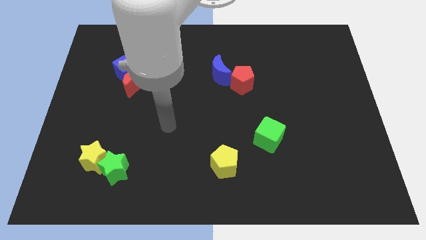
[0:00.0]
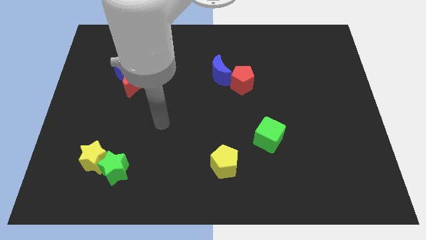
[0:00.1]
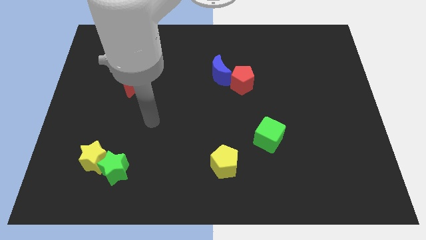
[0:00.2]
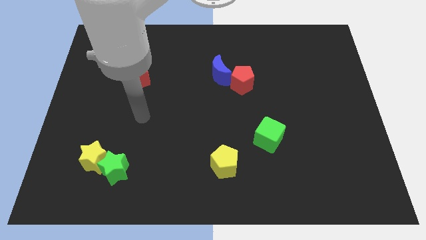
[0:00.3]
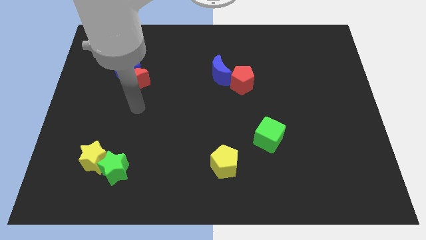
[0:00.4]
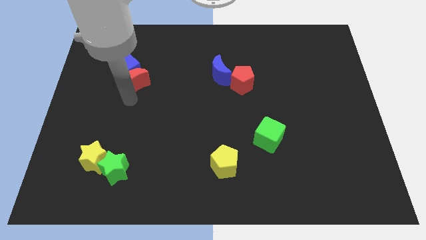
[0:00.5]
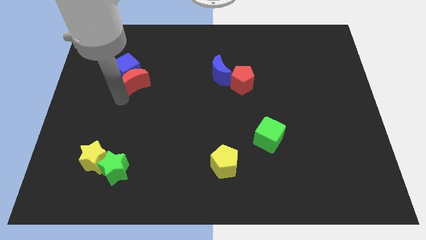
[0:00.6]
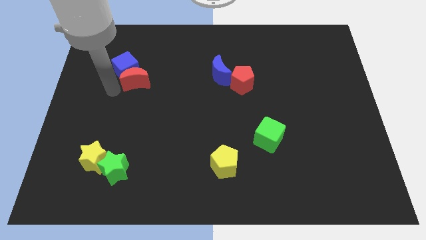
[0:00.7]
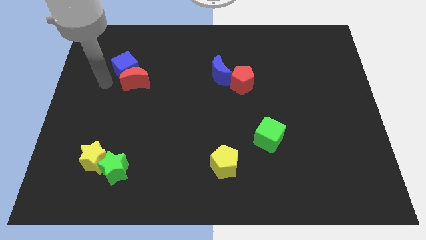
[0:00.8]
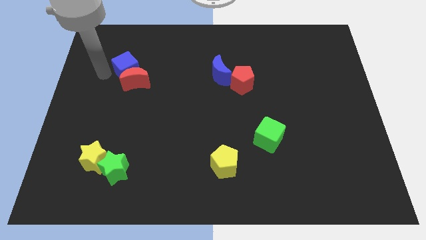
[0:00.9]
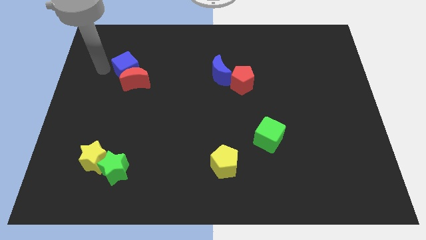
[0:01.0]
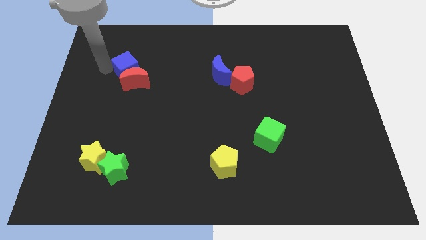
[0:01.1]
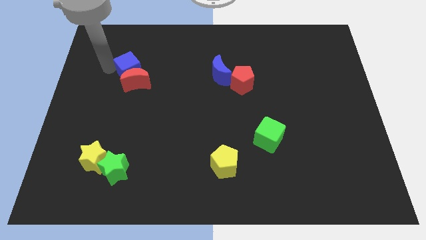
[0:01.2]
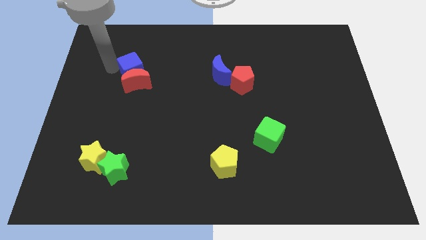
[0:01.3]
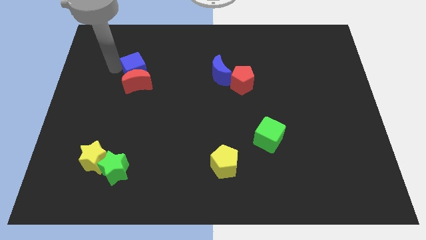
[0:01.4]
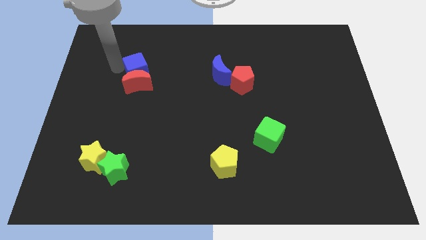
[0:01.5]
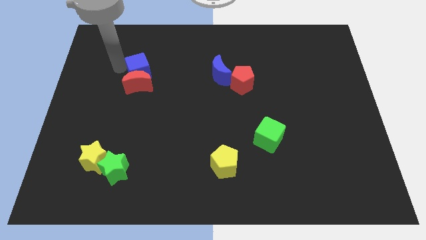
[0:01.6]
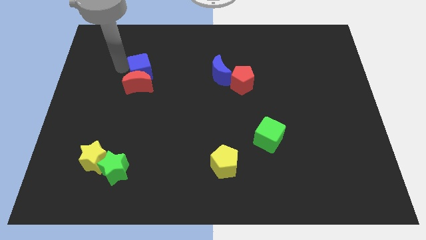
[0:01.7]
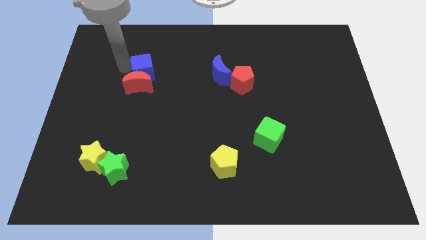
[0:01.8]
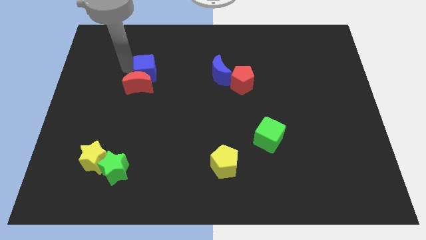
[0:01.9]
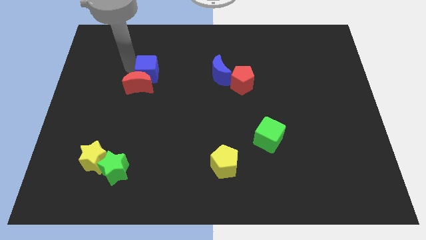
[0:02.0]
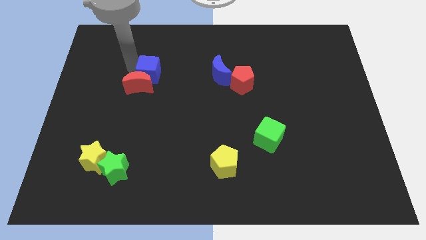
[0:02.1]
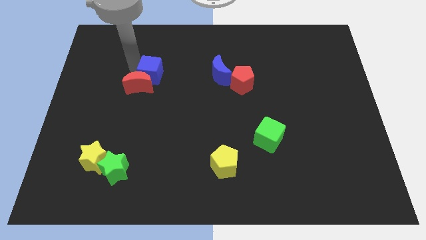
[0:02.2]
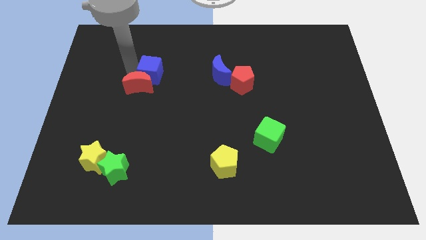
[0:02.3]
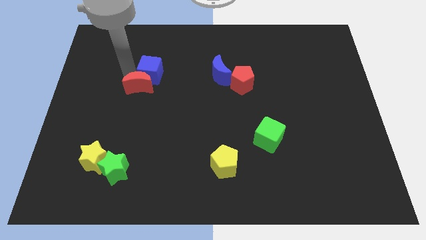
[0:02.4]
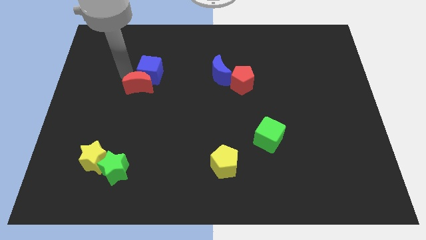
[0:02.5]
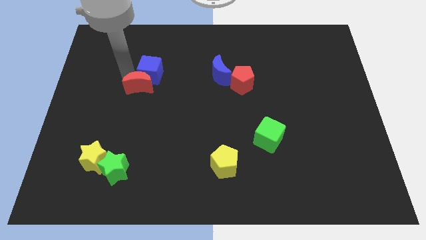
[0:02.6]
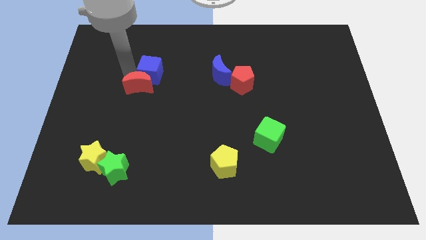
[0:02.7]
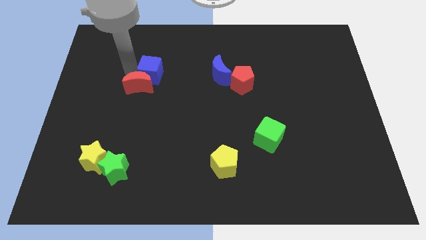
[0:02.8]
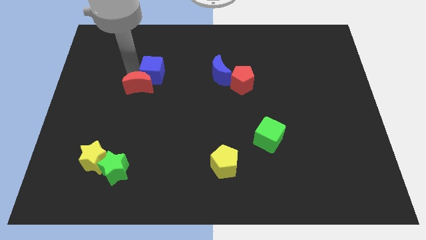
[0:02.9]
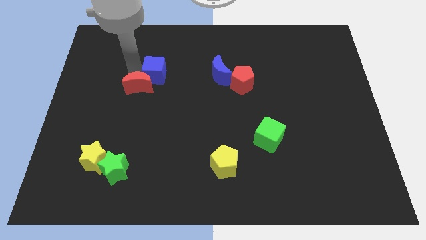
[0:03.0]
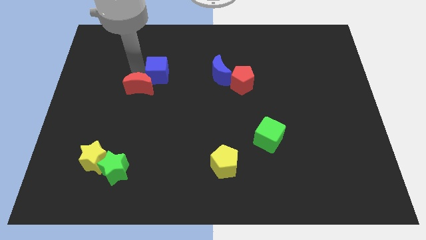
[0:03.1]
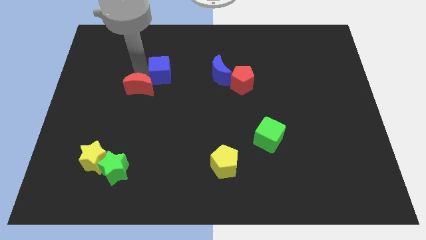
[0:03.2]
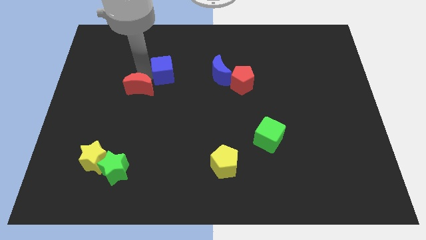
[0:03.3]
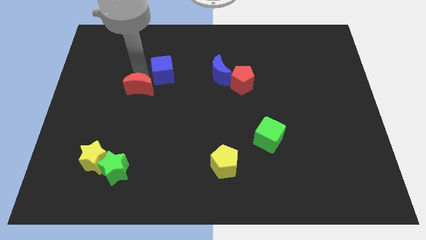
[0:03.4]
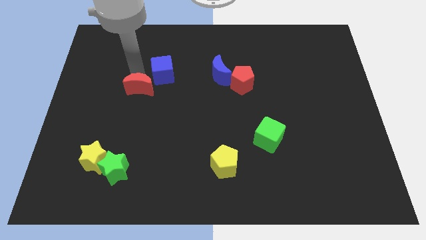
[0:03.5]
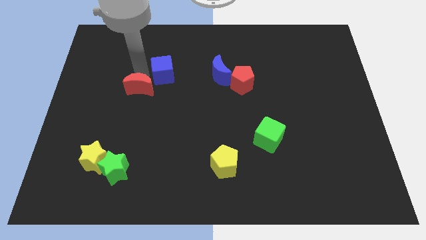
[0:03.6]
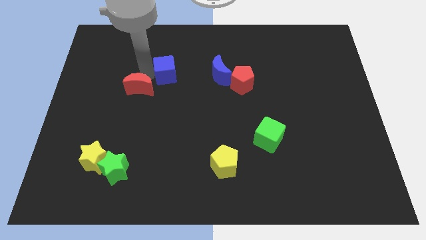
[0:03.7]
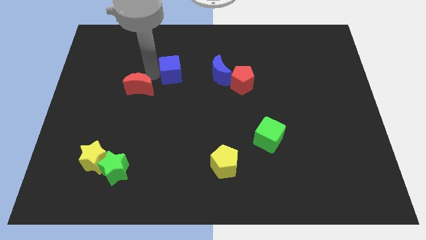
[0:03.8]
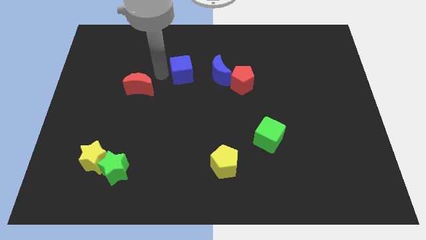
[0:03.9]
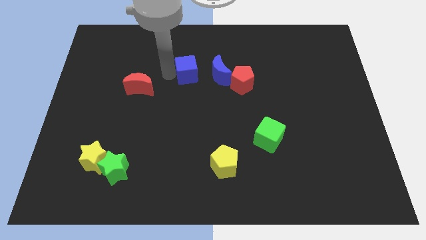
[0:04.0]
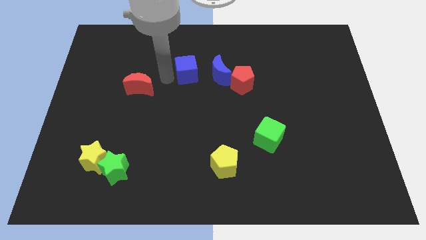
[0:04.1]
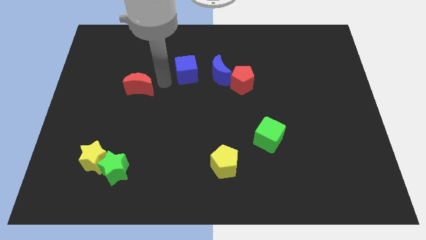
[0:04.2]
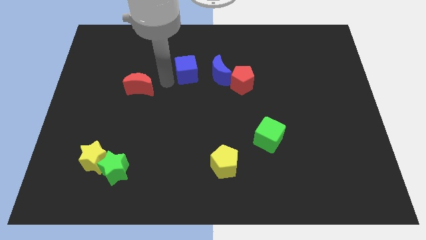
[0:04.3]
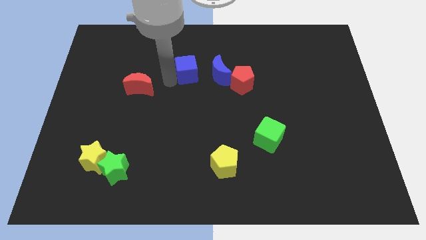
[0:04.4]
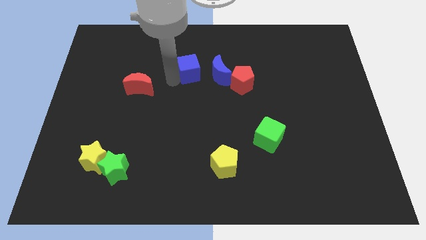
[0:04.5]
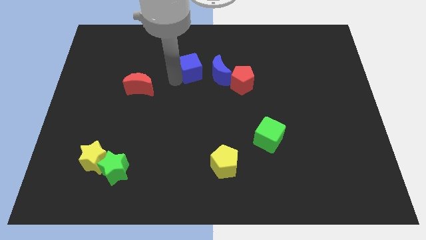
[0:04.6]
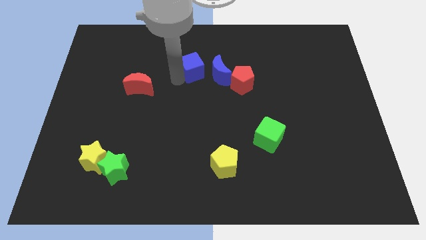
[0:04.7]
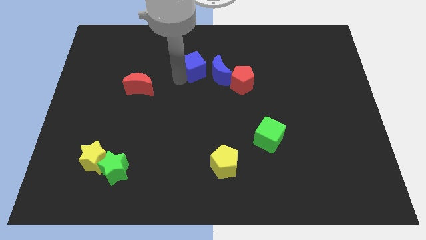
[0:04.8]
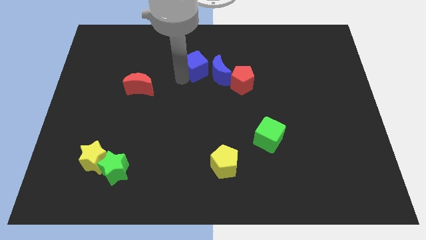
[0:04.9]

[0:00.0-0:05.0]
push the blue cube next to the blue moon

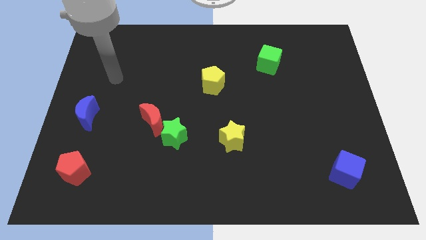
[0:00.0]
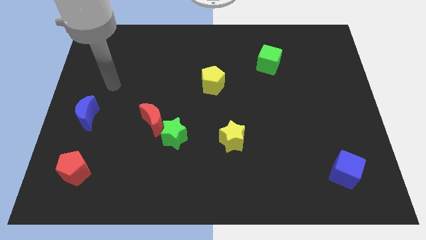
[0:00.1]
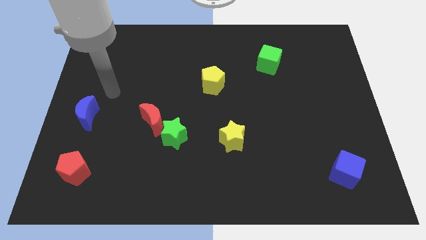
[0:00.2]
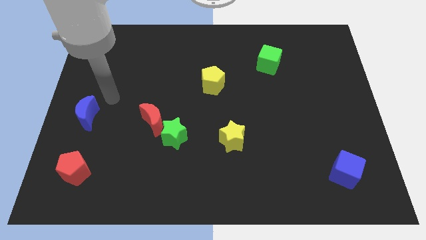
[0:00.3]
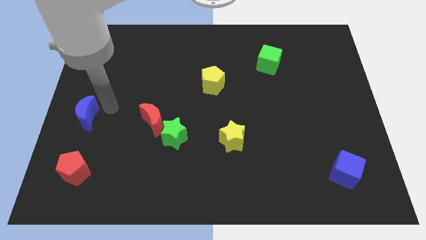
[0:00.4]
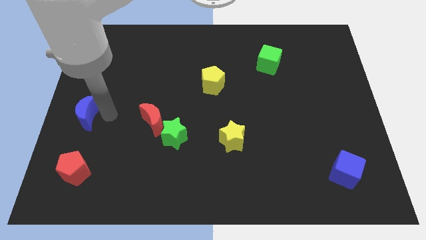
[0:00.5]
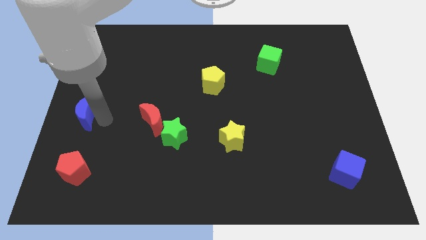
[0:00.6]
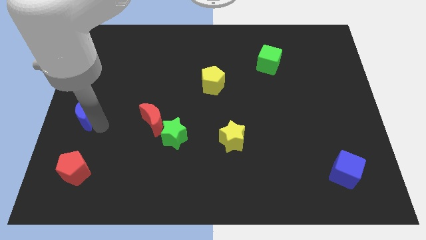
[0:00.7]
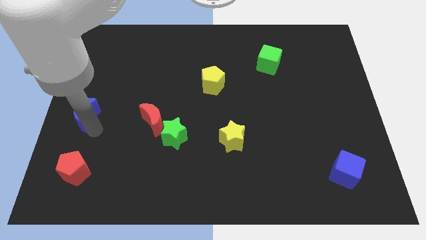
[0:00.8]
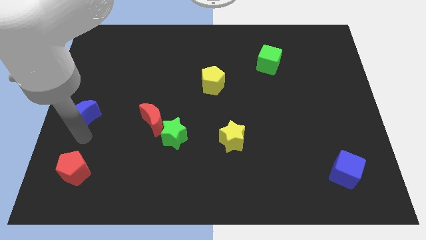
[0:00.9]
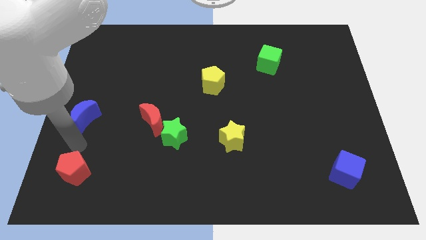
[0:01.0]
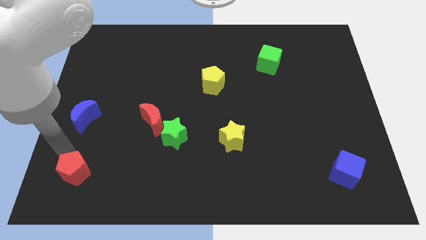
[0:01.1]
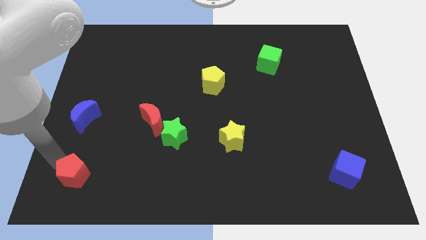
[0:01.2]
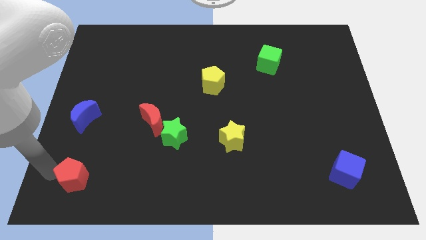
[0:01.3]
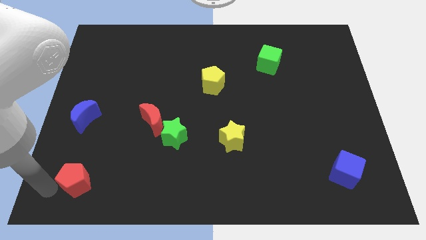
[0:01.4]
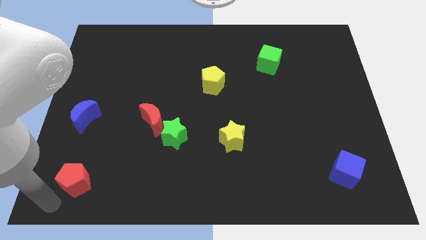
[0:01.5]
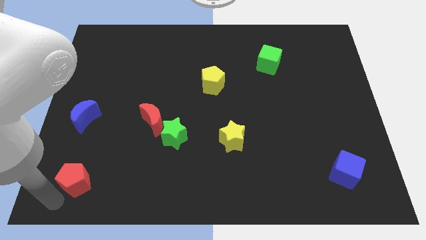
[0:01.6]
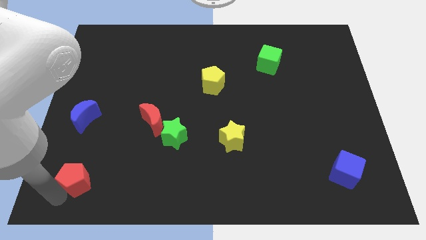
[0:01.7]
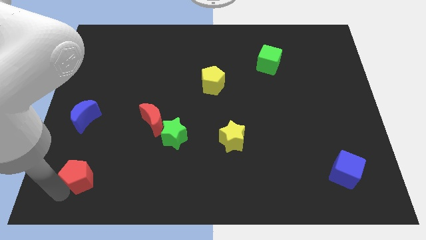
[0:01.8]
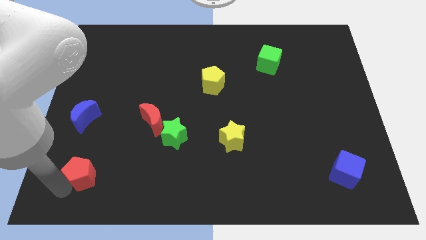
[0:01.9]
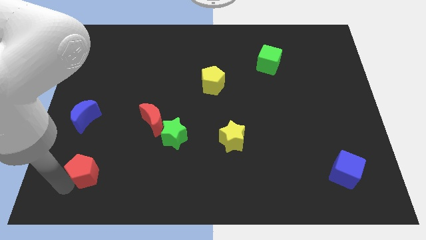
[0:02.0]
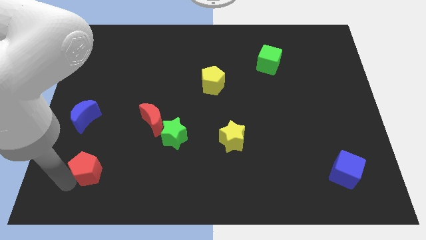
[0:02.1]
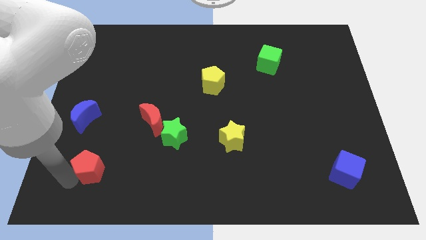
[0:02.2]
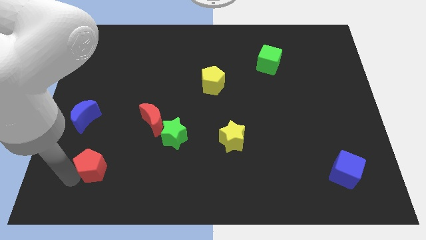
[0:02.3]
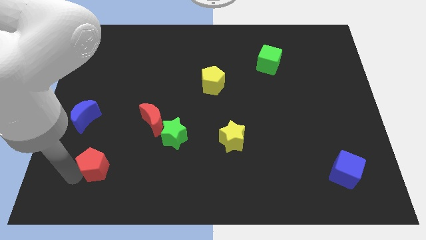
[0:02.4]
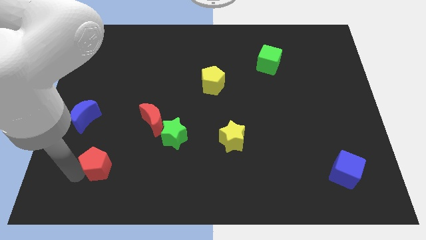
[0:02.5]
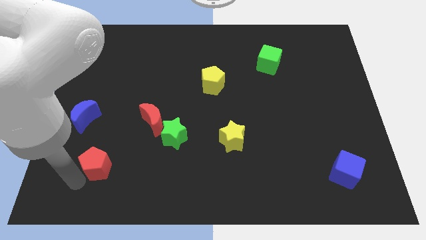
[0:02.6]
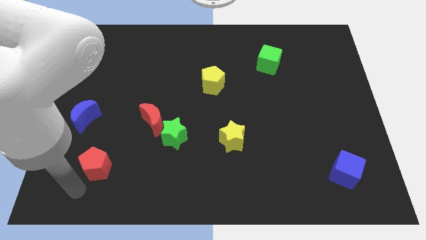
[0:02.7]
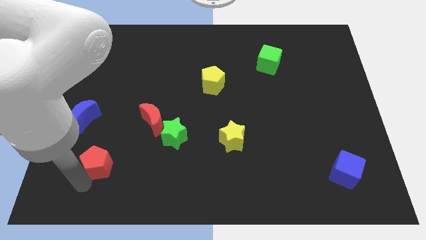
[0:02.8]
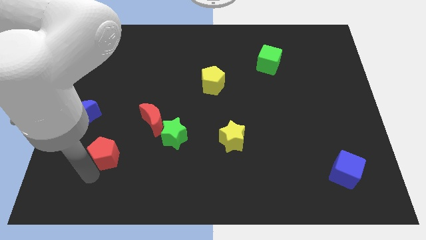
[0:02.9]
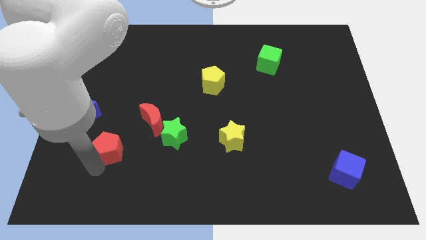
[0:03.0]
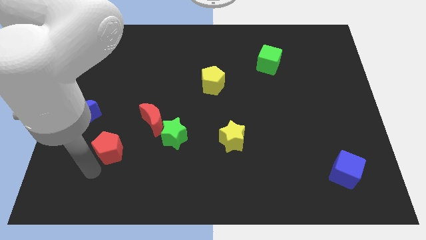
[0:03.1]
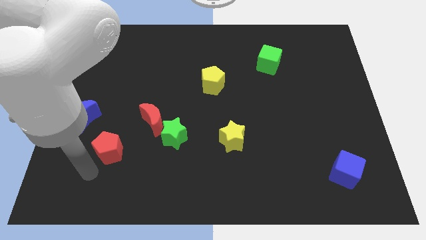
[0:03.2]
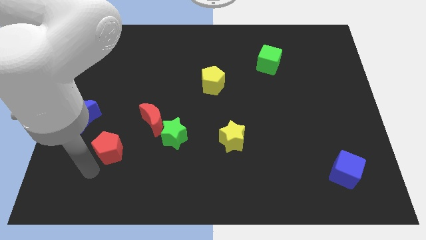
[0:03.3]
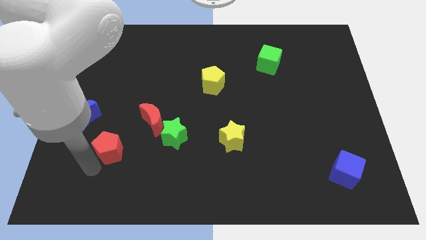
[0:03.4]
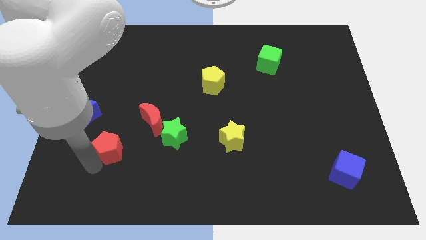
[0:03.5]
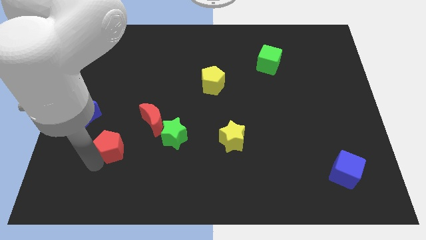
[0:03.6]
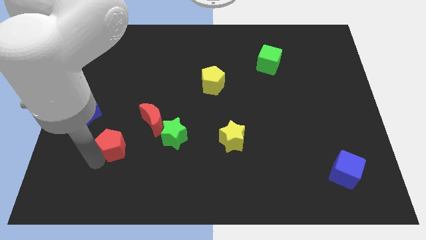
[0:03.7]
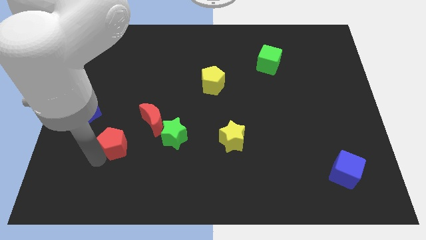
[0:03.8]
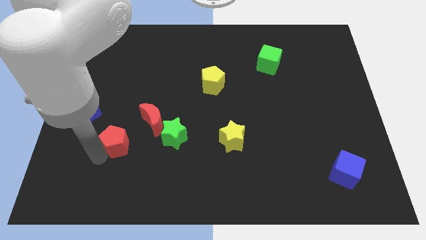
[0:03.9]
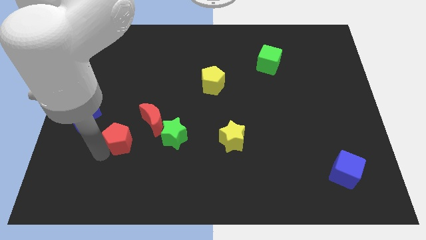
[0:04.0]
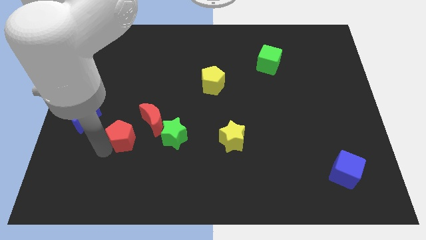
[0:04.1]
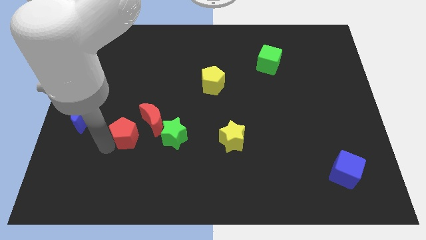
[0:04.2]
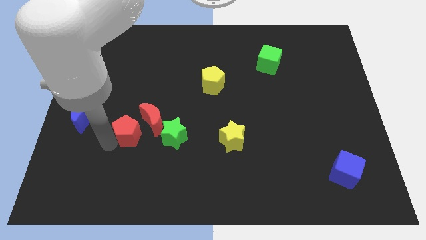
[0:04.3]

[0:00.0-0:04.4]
put the red pentagon close to the red moon
